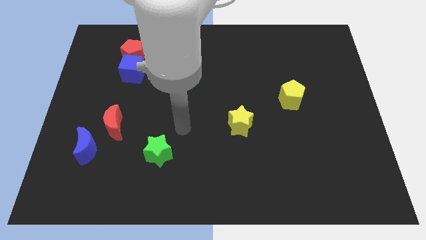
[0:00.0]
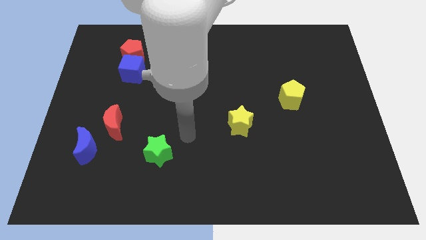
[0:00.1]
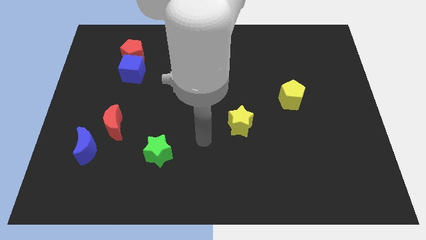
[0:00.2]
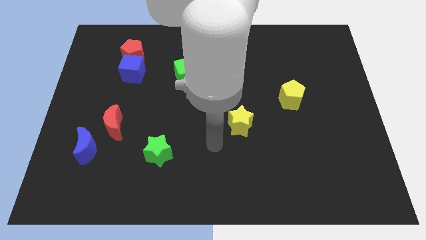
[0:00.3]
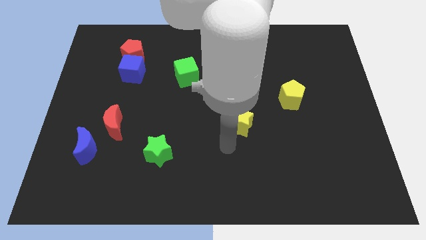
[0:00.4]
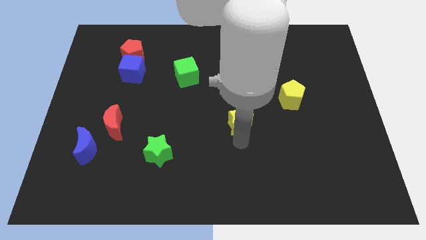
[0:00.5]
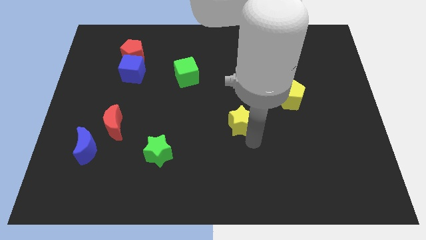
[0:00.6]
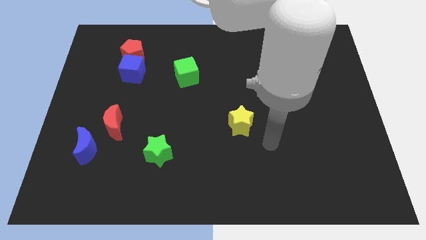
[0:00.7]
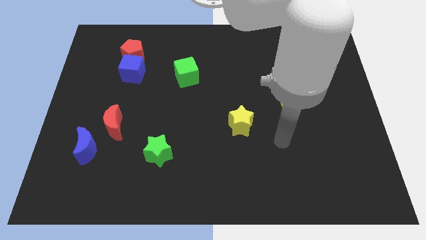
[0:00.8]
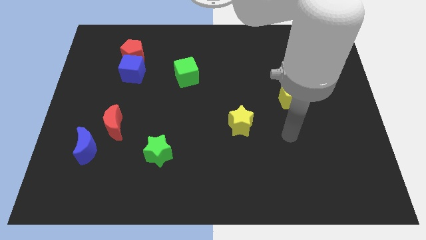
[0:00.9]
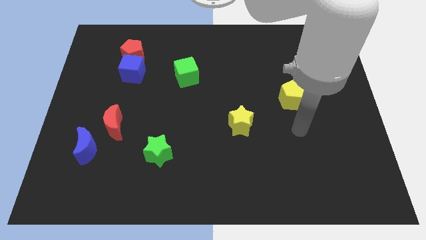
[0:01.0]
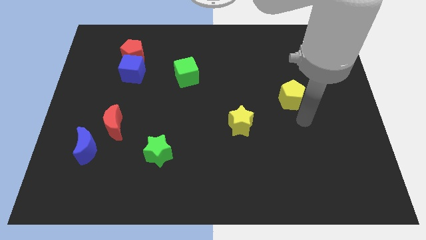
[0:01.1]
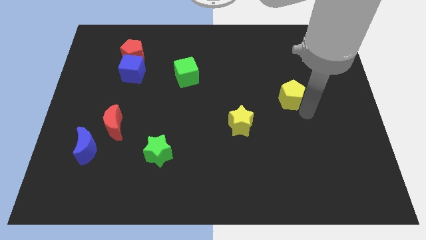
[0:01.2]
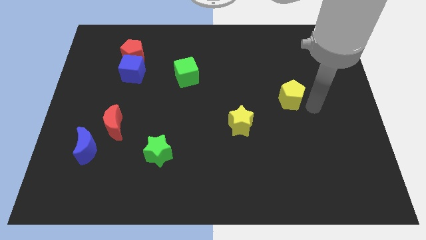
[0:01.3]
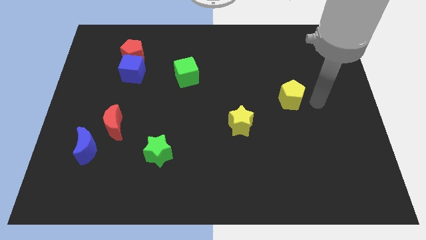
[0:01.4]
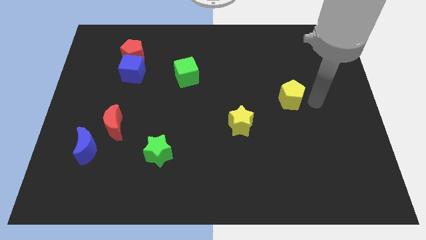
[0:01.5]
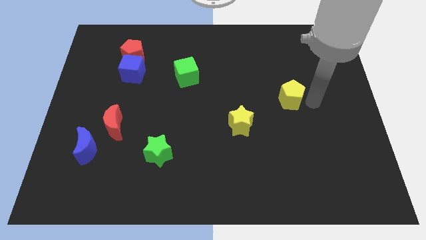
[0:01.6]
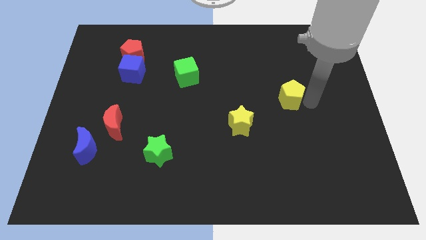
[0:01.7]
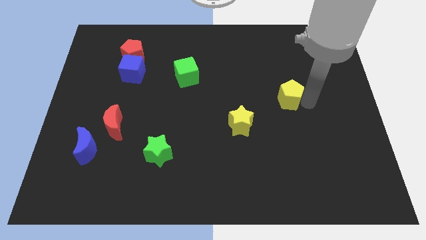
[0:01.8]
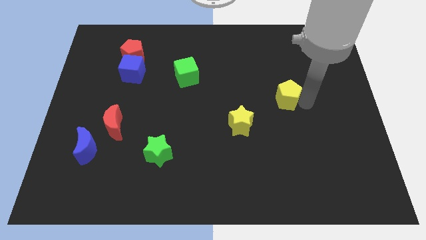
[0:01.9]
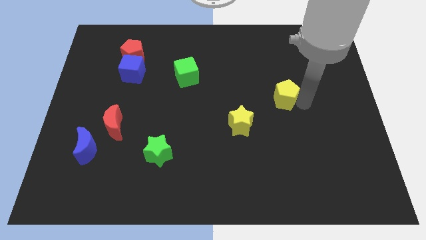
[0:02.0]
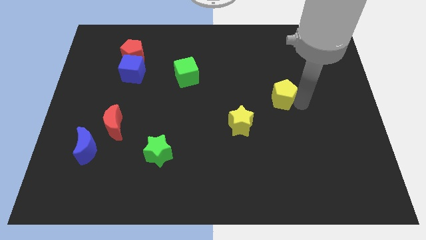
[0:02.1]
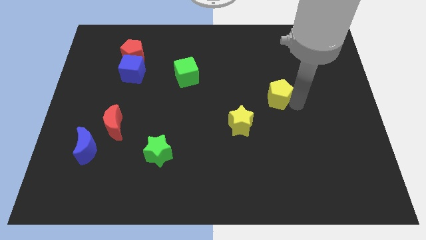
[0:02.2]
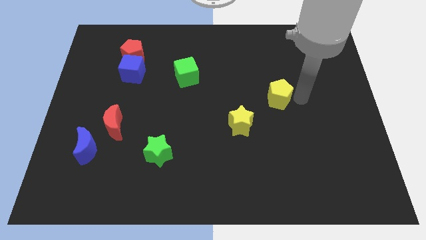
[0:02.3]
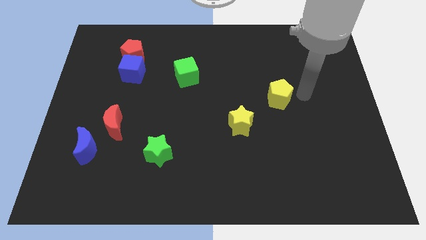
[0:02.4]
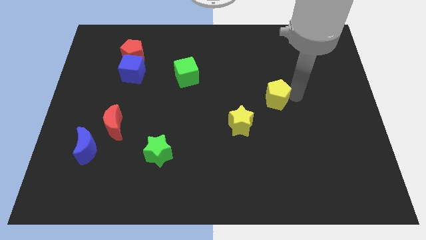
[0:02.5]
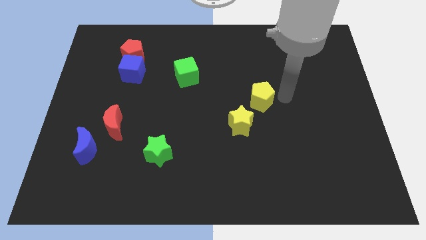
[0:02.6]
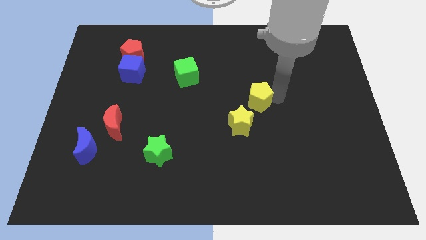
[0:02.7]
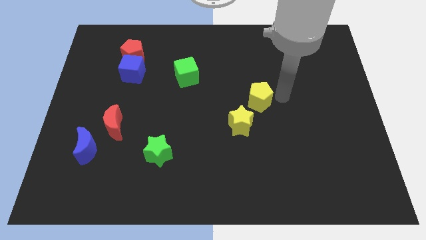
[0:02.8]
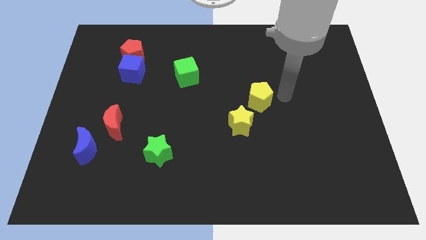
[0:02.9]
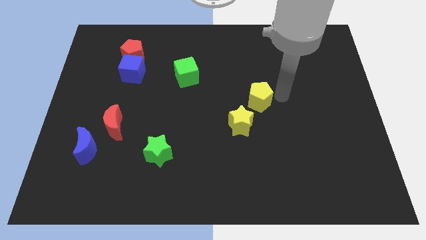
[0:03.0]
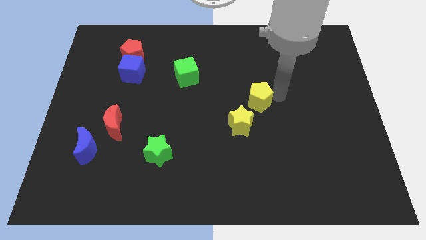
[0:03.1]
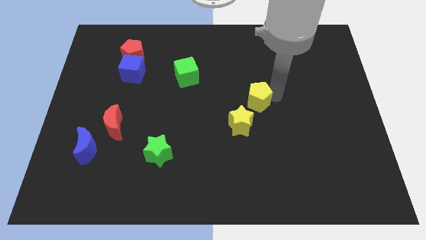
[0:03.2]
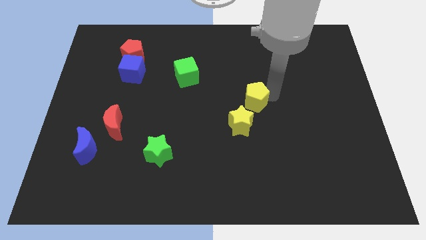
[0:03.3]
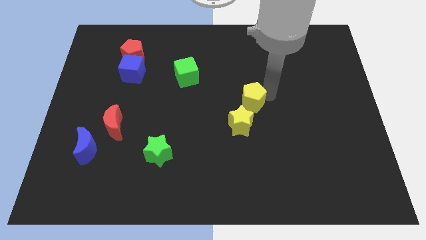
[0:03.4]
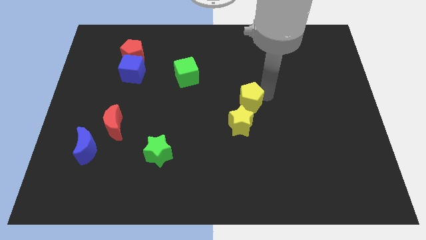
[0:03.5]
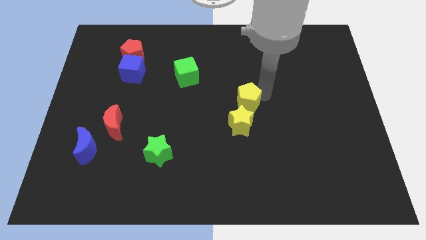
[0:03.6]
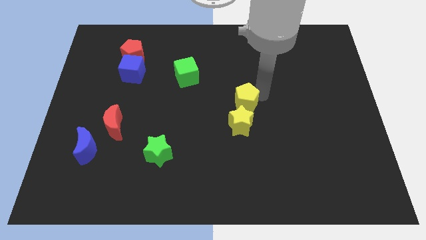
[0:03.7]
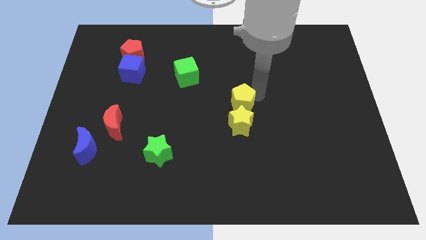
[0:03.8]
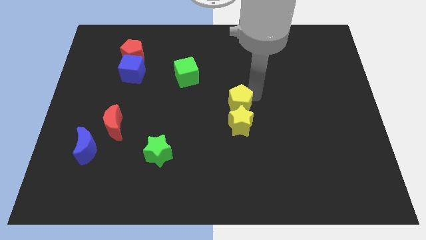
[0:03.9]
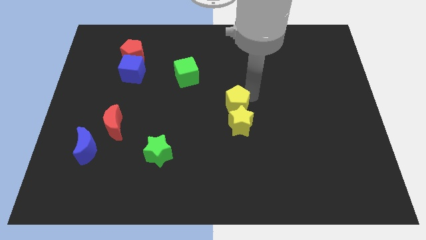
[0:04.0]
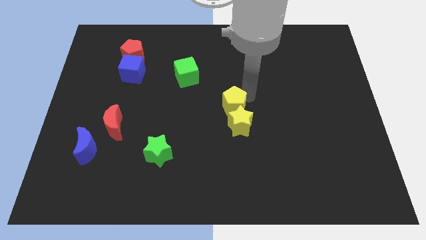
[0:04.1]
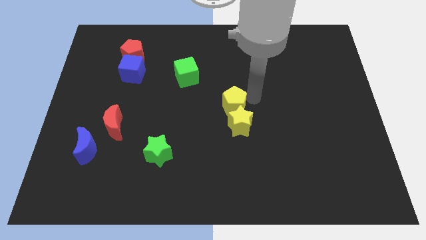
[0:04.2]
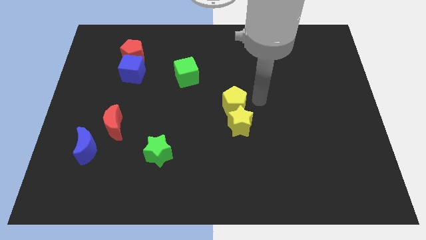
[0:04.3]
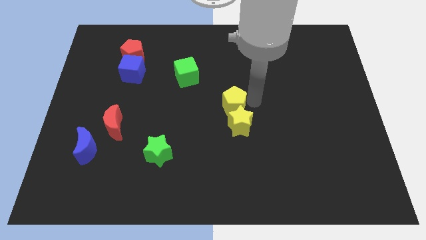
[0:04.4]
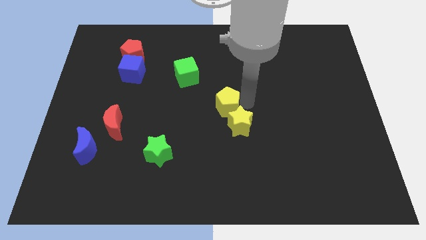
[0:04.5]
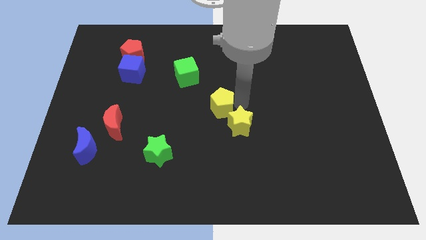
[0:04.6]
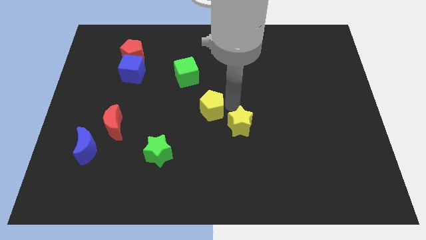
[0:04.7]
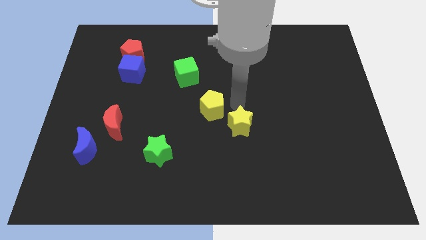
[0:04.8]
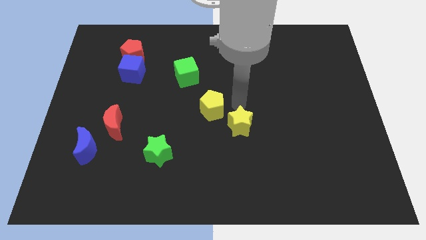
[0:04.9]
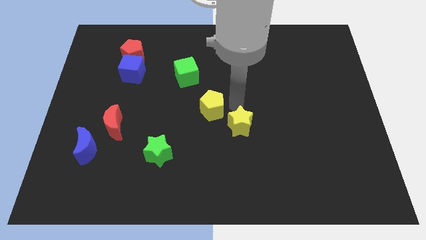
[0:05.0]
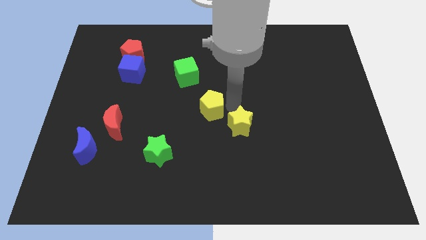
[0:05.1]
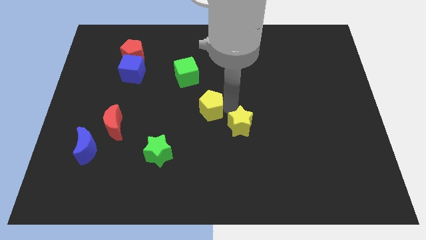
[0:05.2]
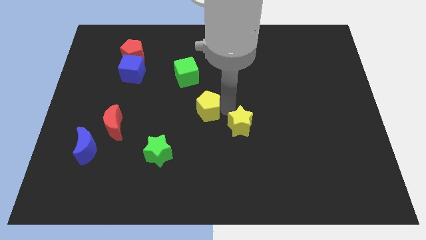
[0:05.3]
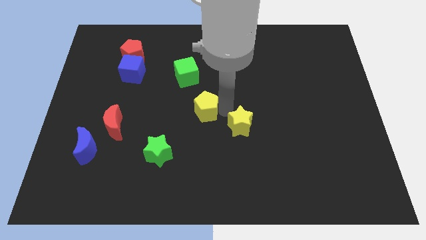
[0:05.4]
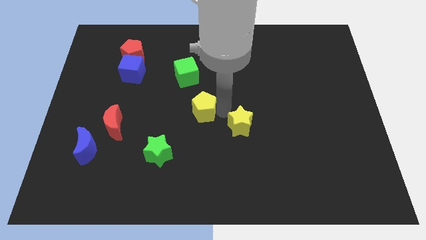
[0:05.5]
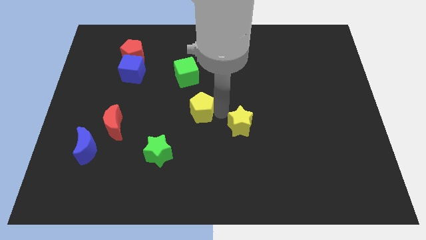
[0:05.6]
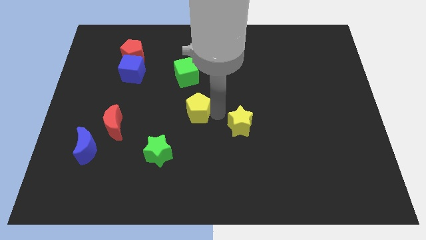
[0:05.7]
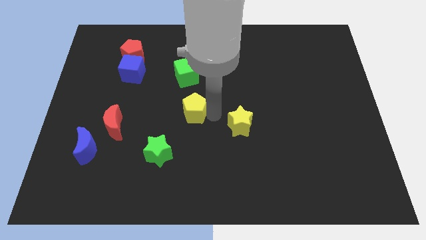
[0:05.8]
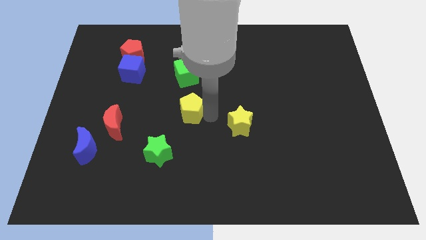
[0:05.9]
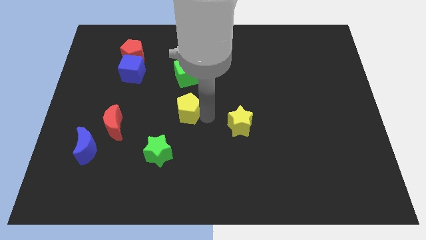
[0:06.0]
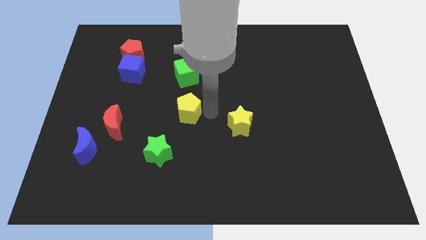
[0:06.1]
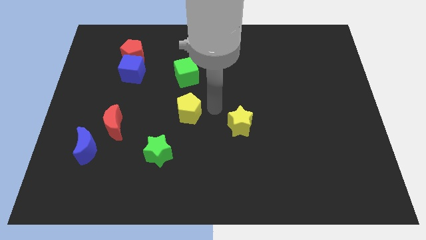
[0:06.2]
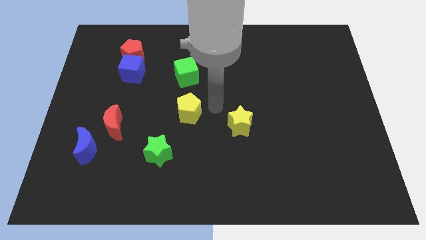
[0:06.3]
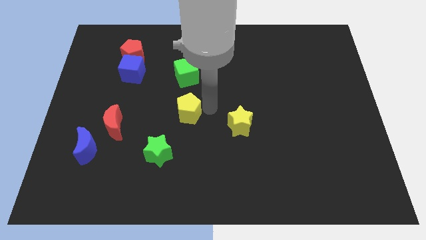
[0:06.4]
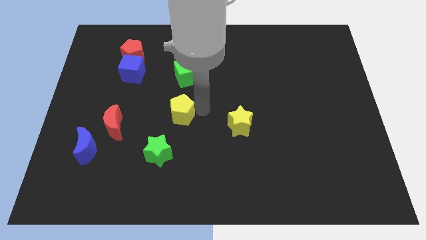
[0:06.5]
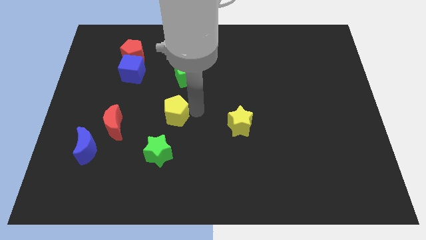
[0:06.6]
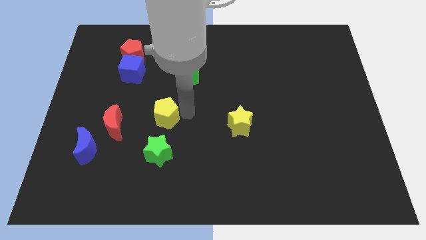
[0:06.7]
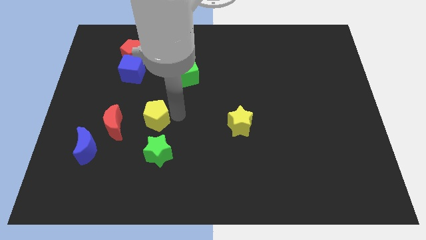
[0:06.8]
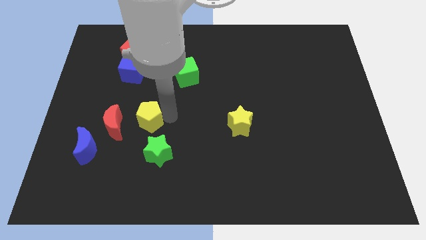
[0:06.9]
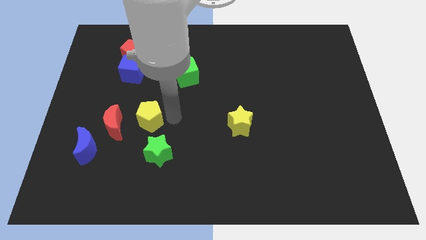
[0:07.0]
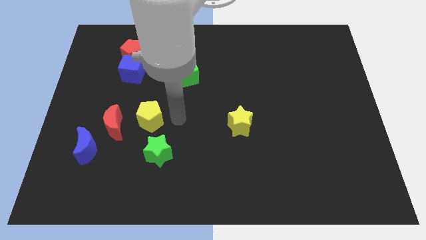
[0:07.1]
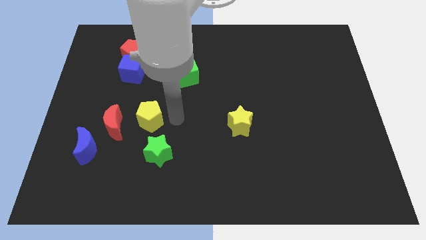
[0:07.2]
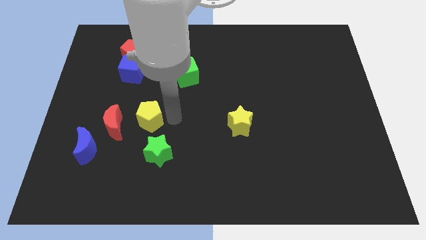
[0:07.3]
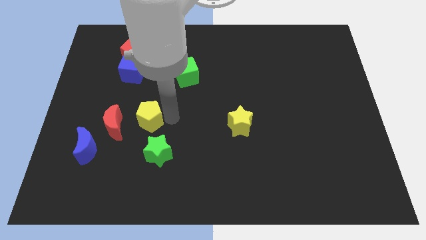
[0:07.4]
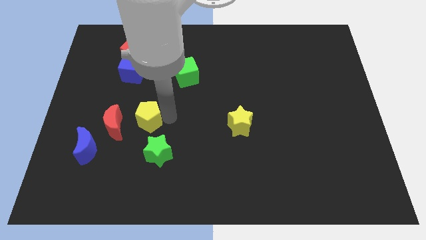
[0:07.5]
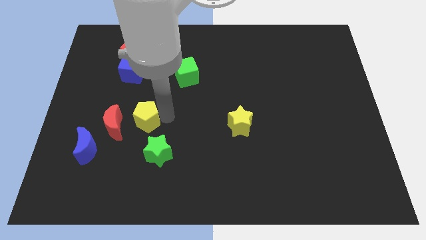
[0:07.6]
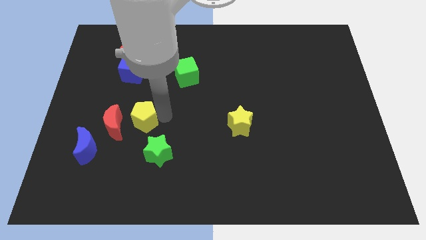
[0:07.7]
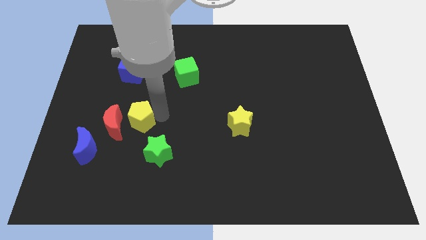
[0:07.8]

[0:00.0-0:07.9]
put the yellow pentagon to the red moon
